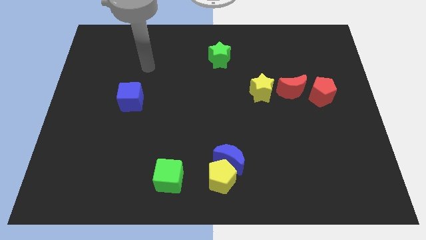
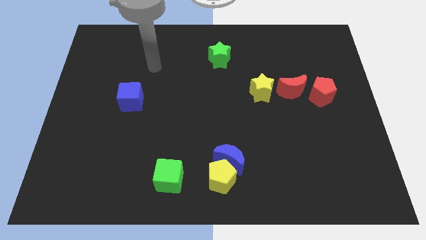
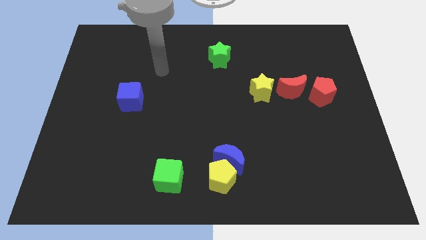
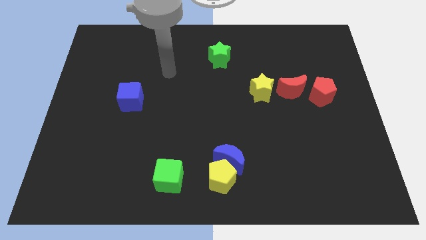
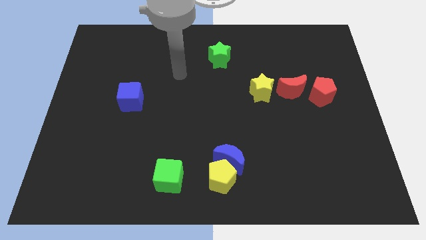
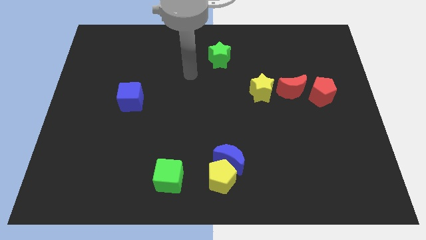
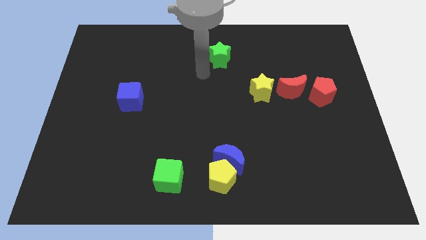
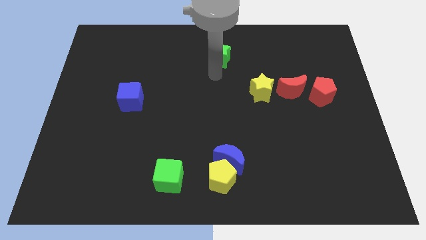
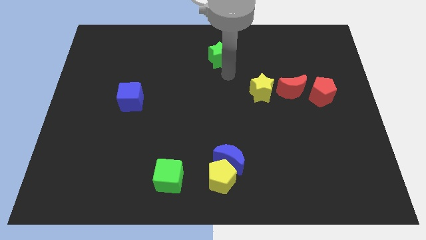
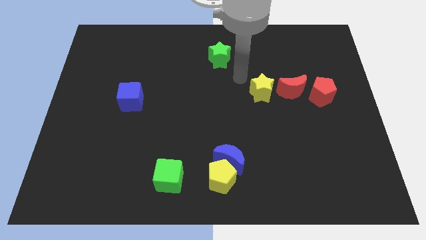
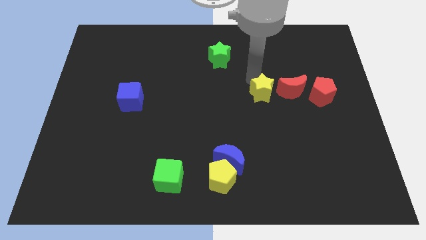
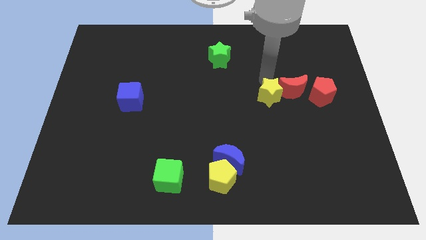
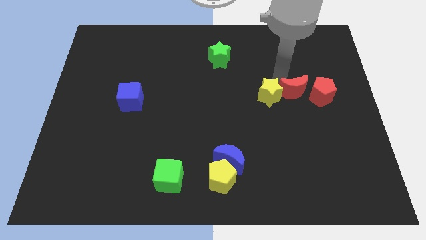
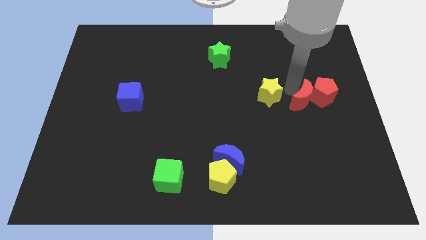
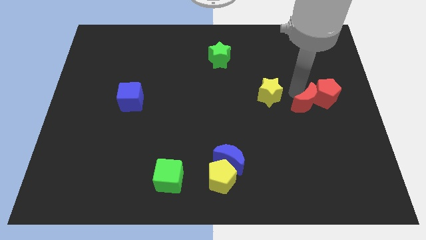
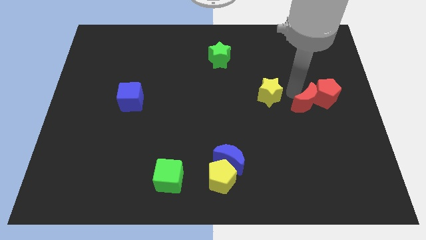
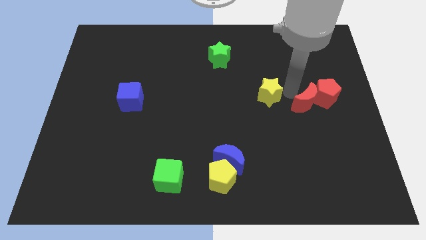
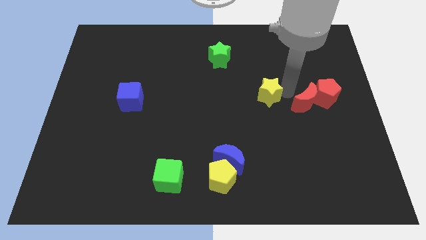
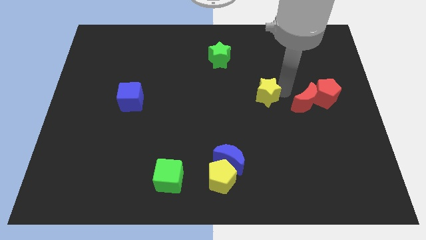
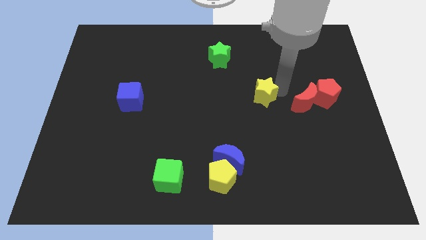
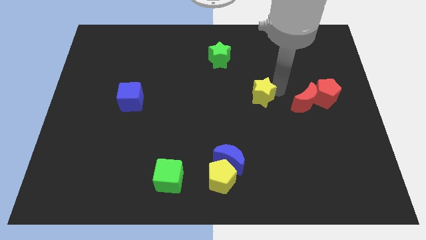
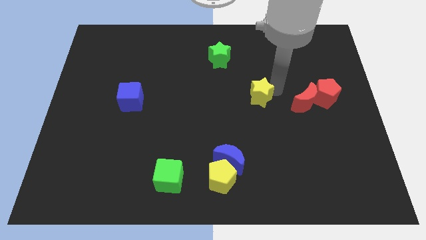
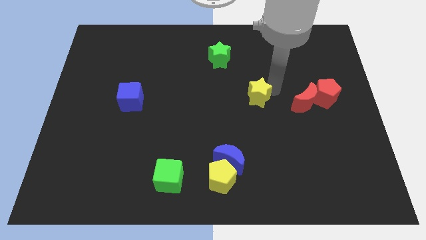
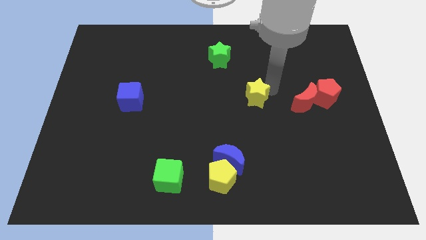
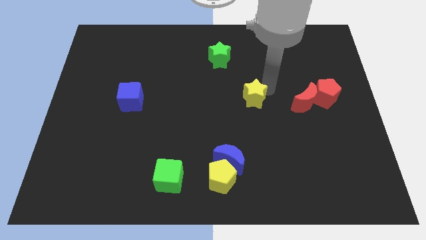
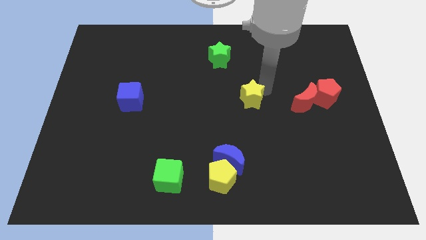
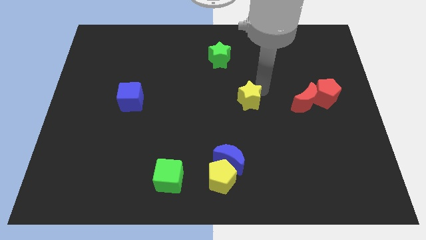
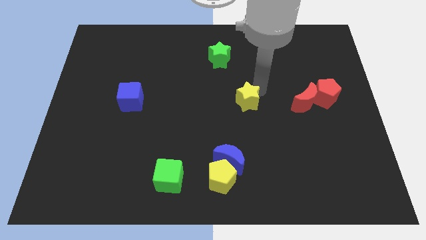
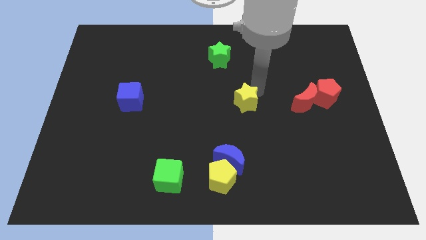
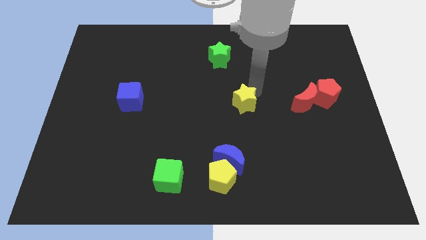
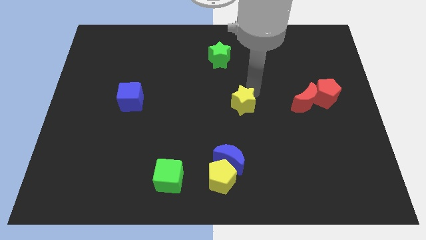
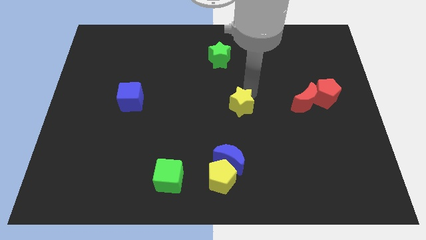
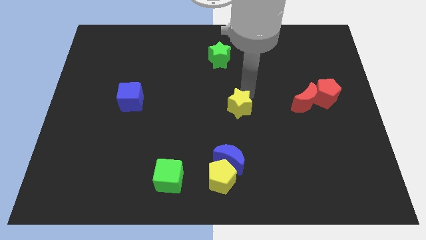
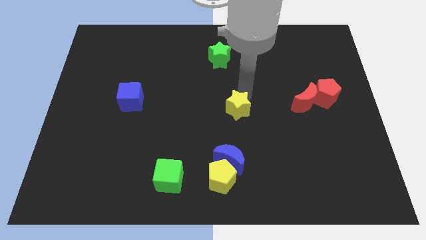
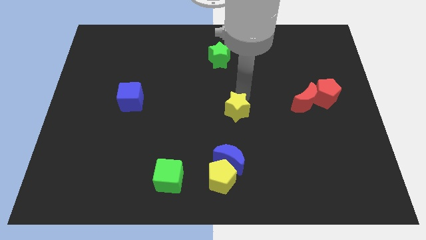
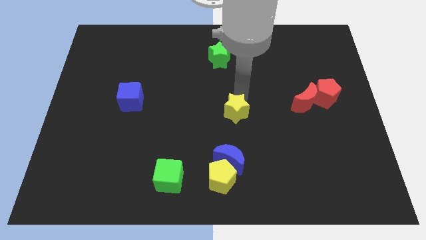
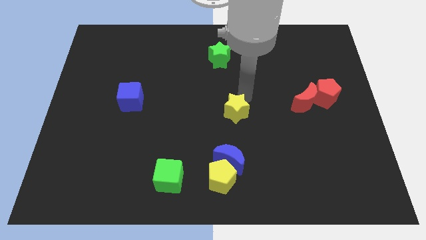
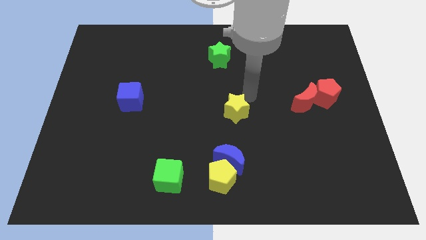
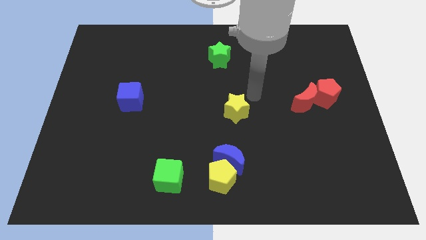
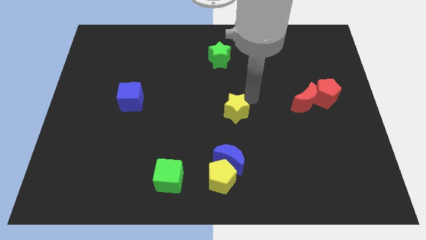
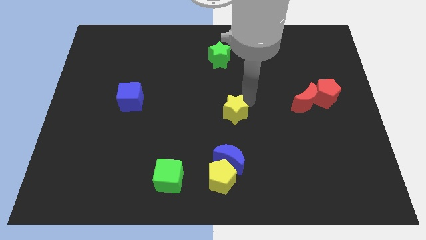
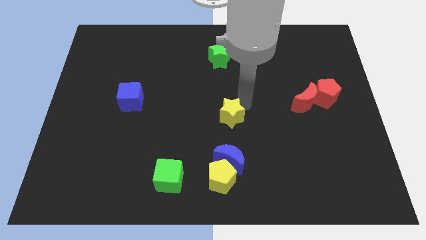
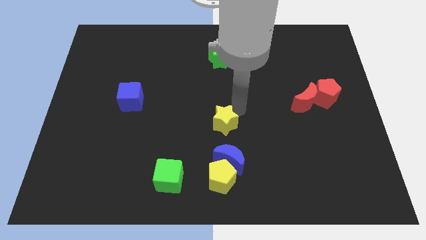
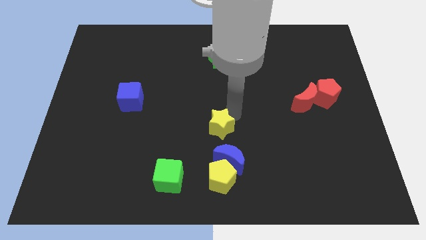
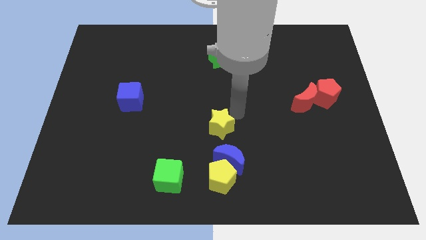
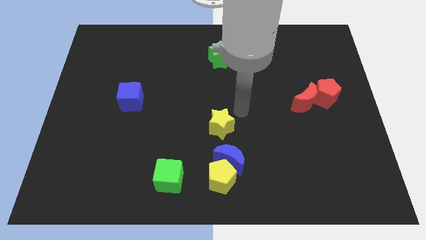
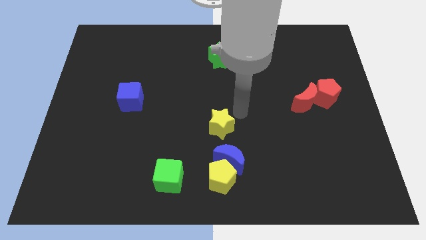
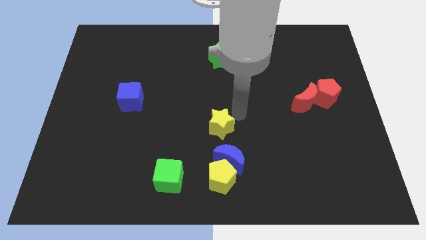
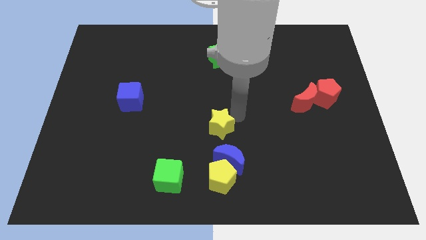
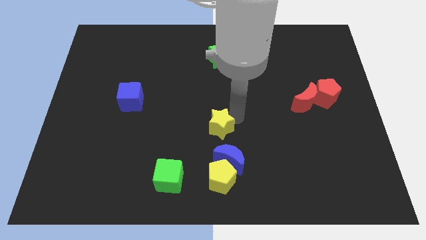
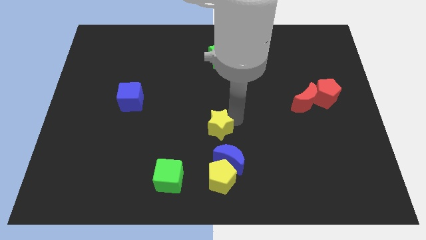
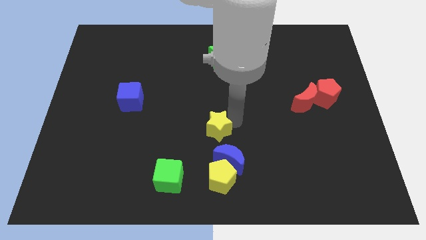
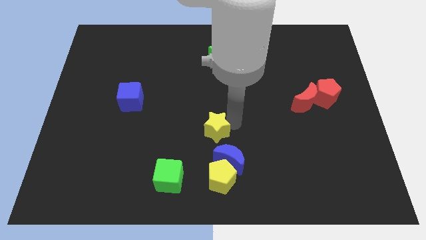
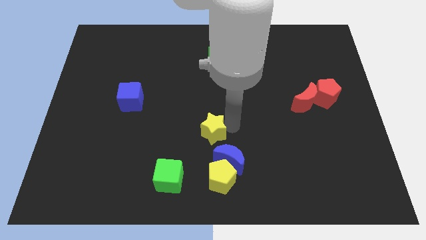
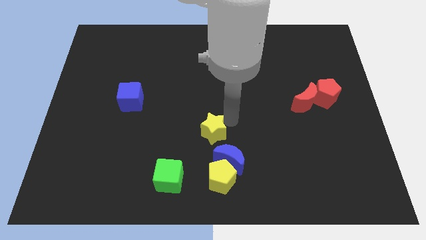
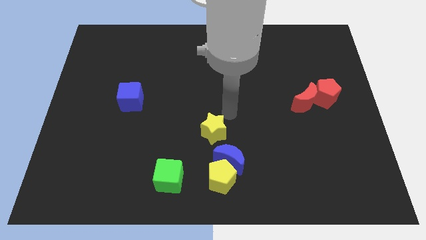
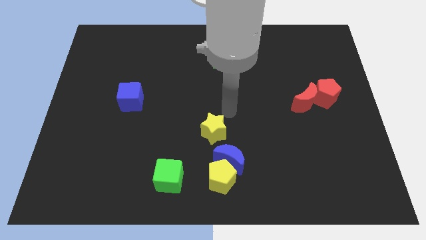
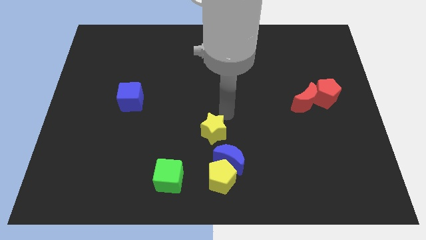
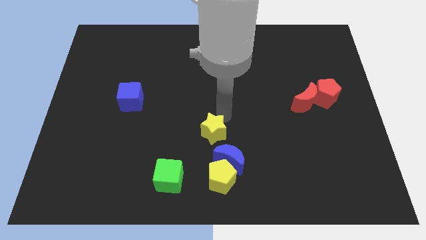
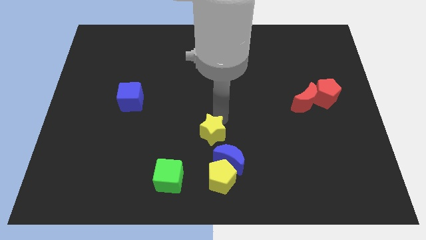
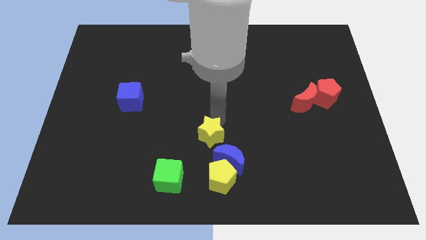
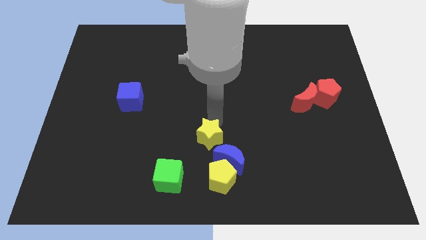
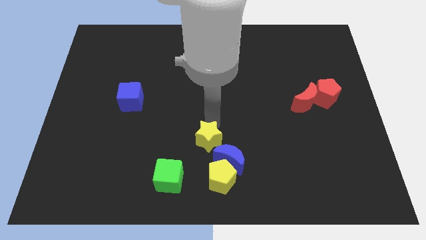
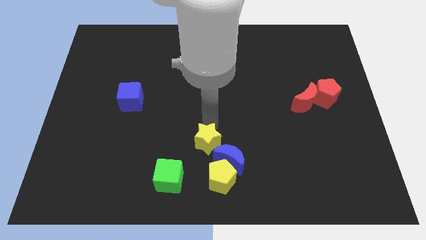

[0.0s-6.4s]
move the yellow star to the top left of the yellow pentagon

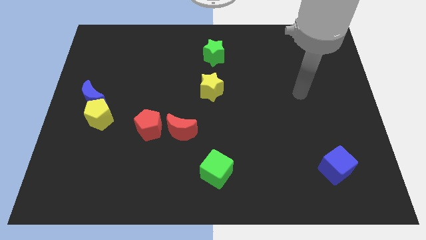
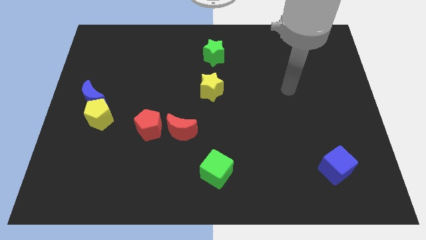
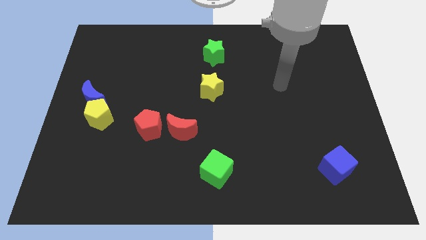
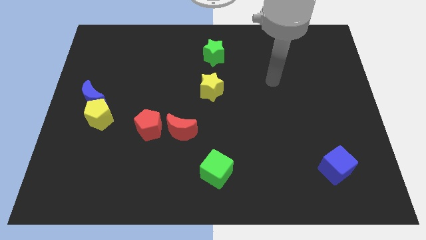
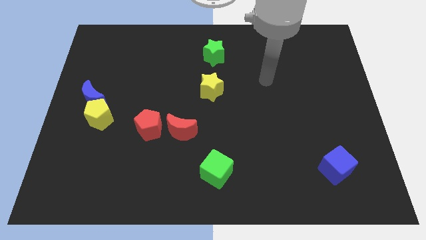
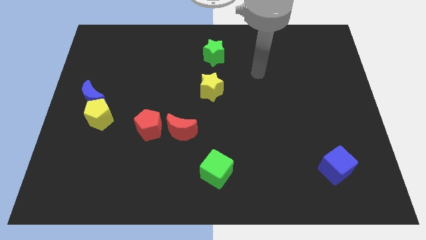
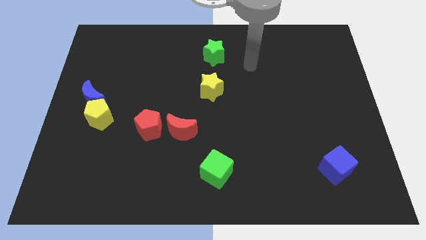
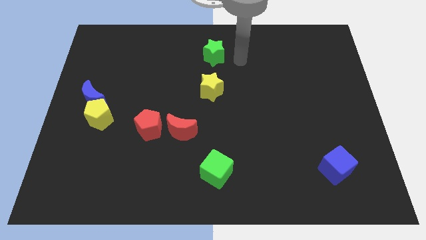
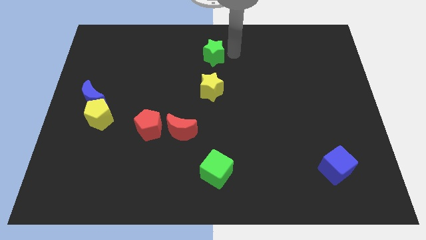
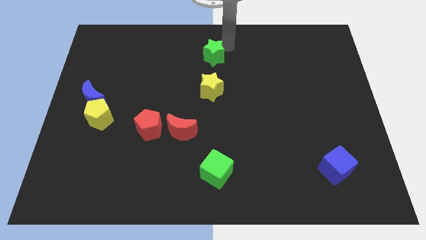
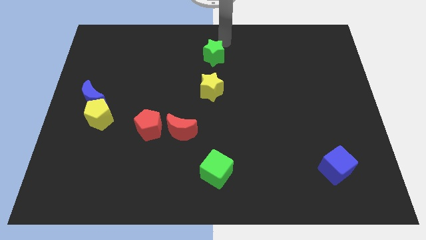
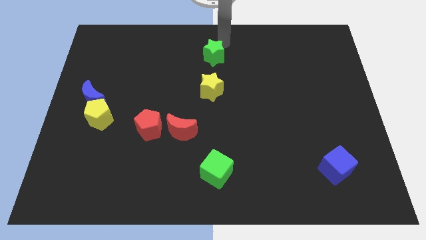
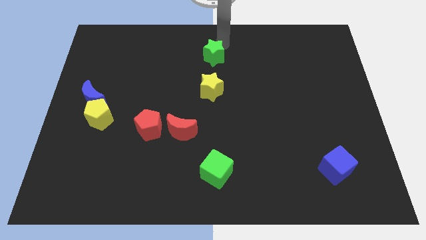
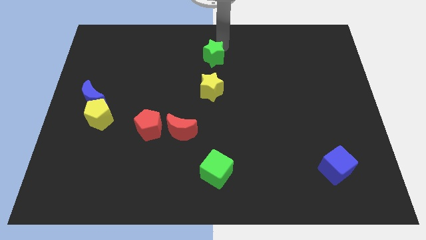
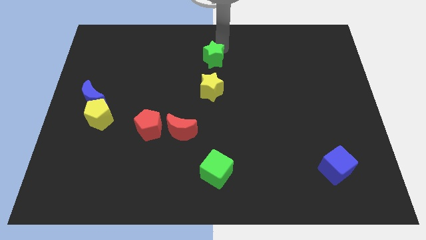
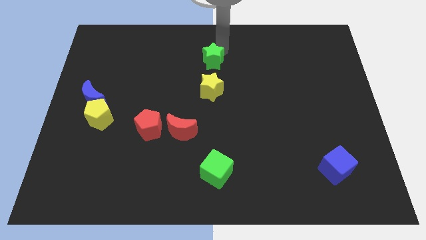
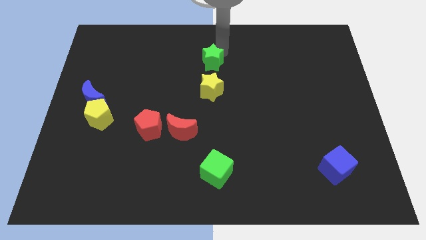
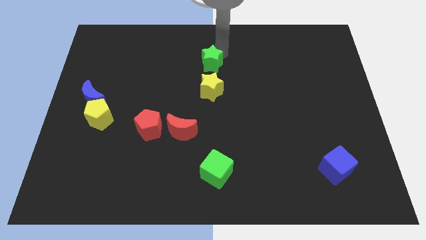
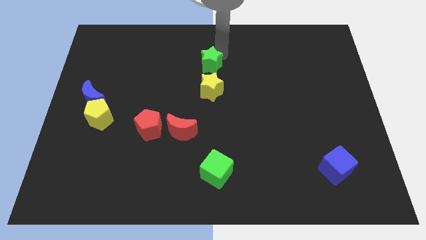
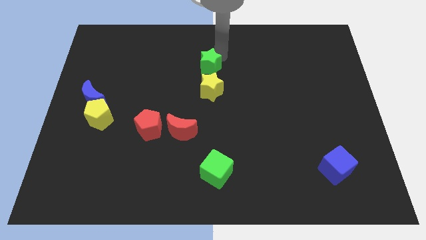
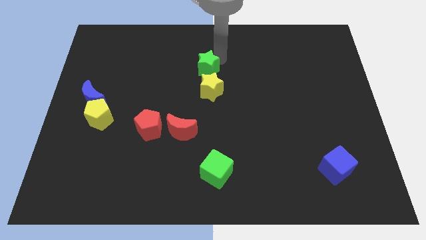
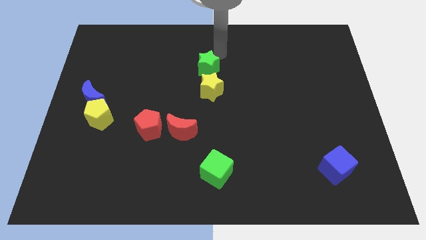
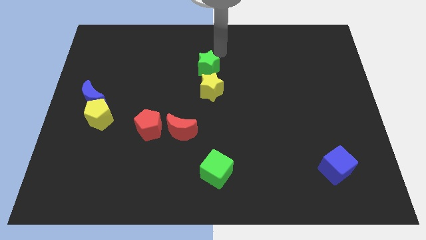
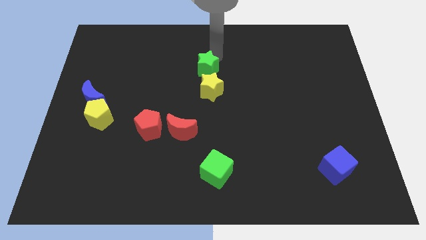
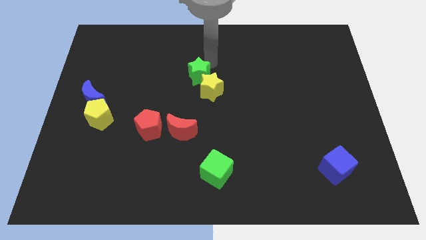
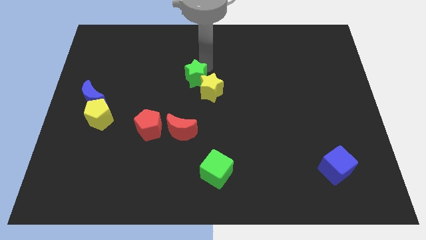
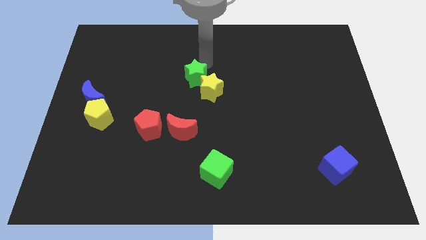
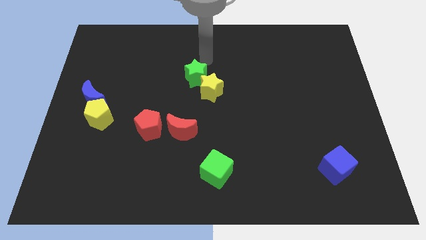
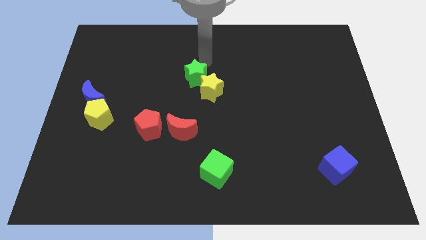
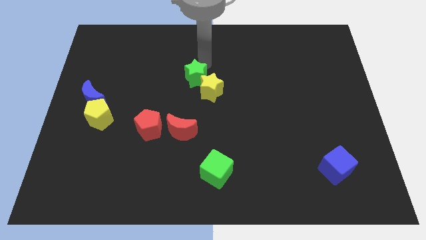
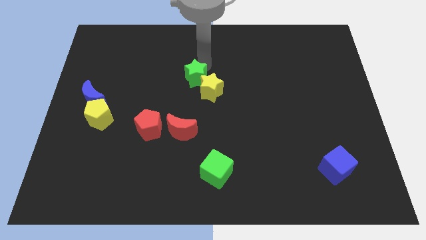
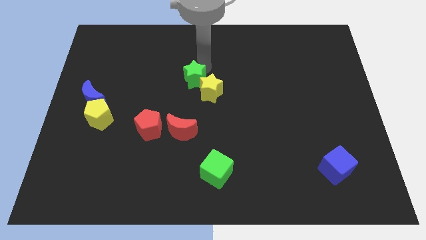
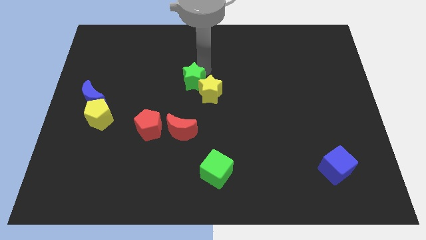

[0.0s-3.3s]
move the green star above the red moon
